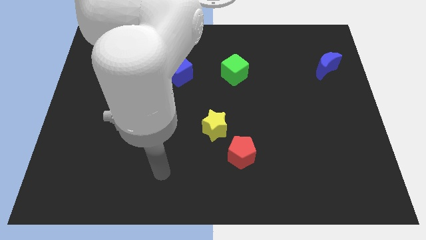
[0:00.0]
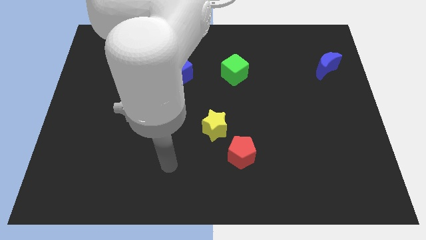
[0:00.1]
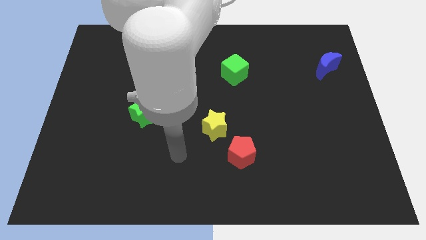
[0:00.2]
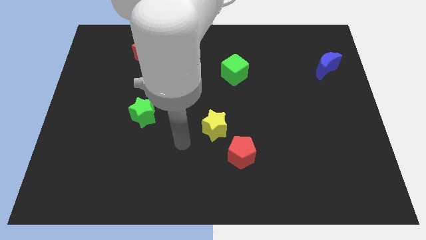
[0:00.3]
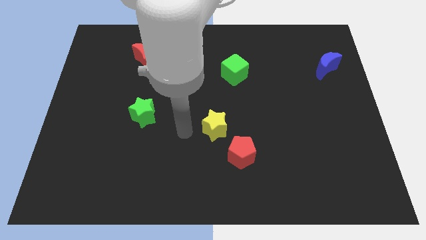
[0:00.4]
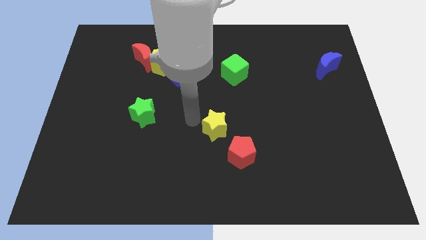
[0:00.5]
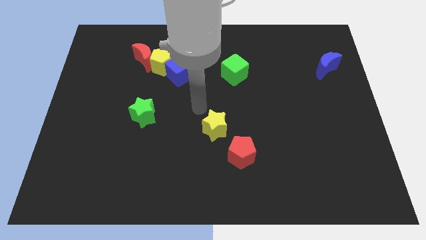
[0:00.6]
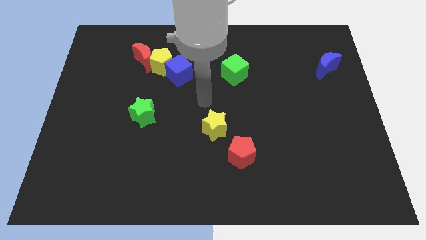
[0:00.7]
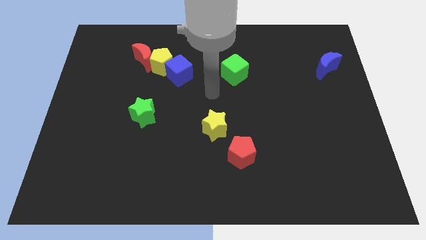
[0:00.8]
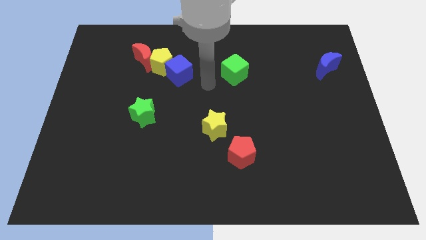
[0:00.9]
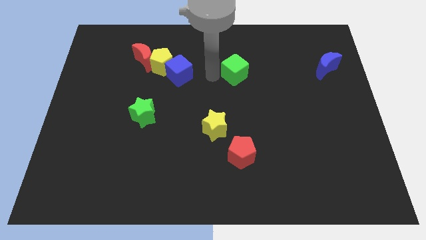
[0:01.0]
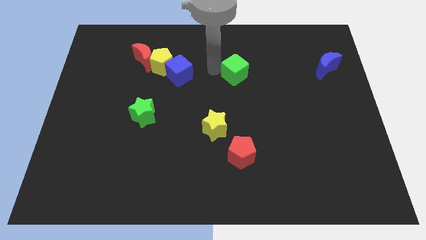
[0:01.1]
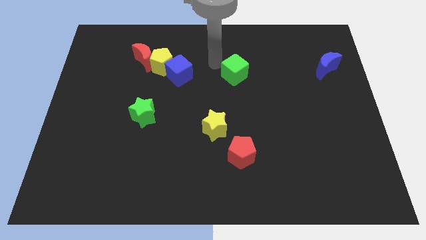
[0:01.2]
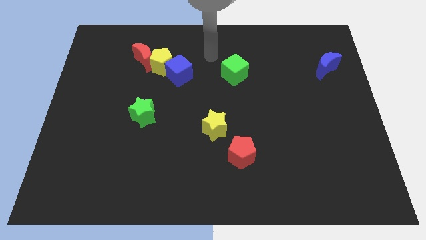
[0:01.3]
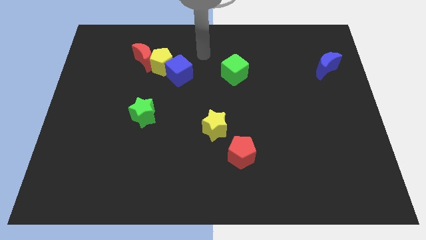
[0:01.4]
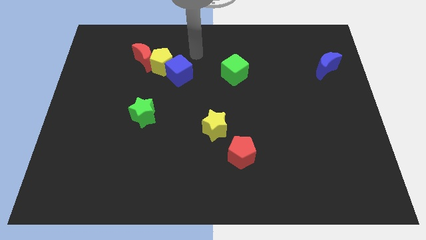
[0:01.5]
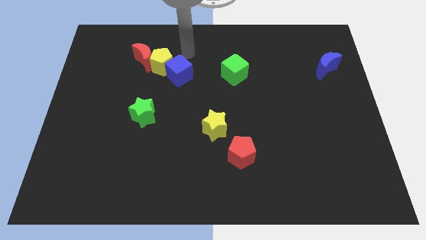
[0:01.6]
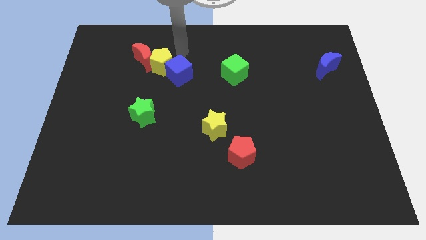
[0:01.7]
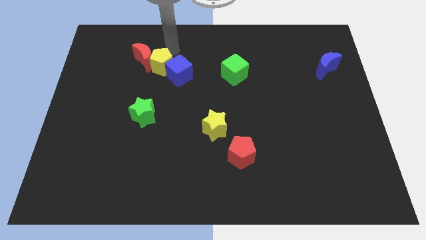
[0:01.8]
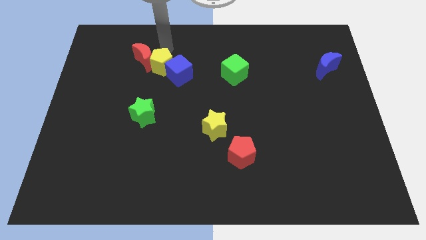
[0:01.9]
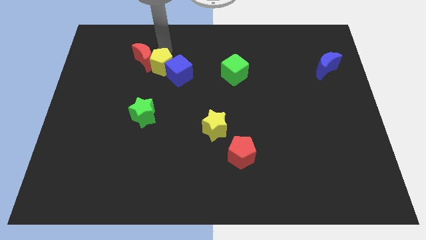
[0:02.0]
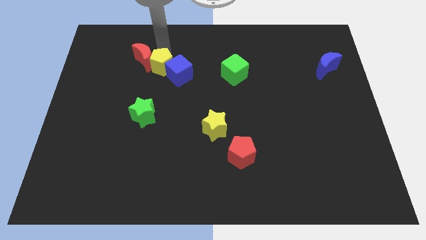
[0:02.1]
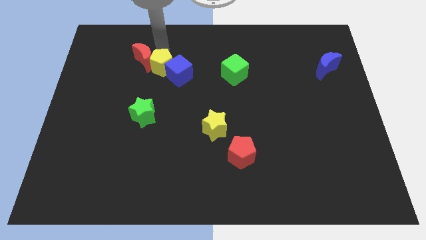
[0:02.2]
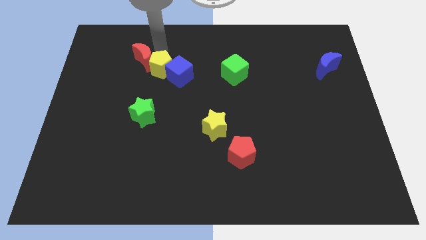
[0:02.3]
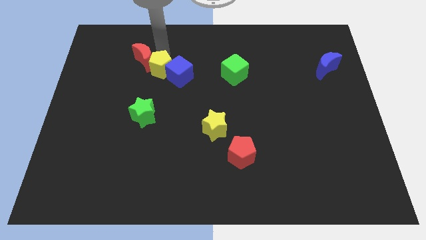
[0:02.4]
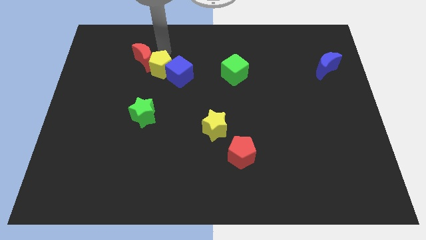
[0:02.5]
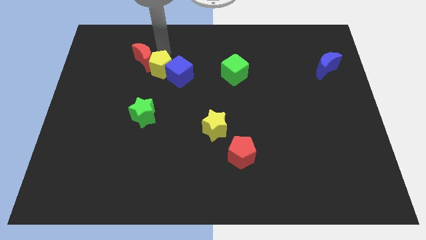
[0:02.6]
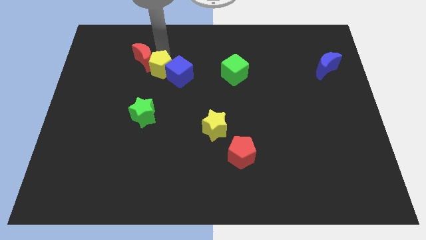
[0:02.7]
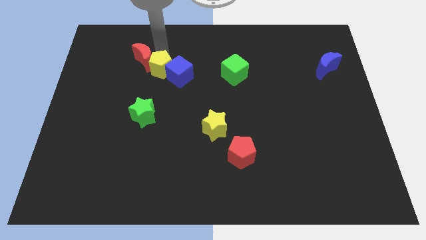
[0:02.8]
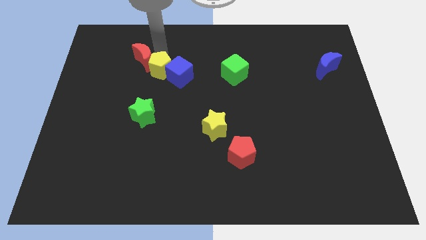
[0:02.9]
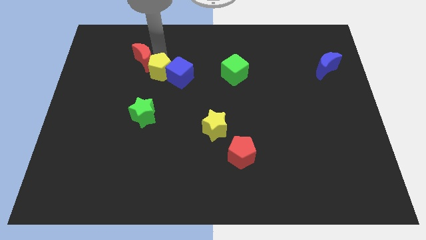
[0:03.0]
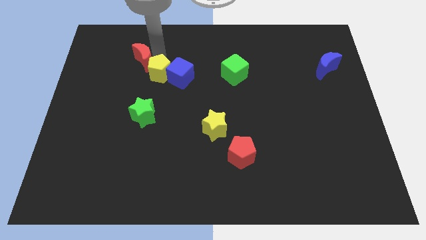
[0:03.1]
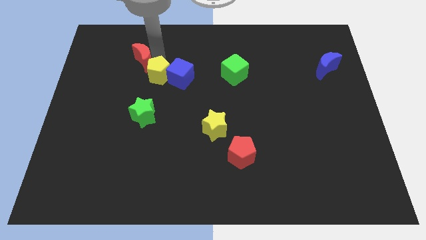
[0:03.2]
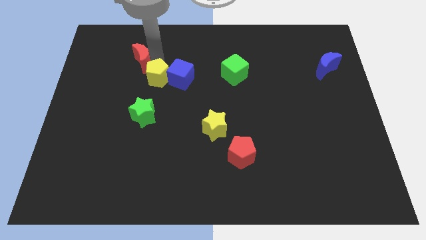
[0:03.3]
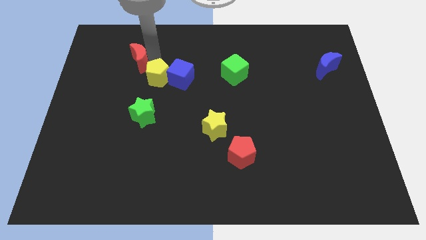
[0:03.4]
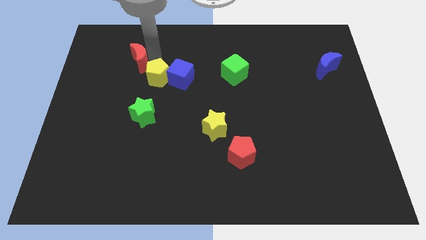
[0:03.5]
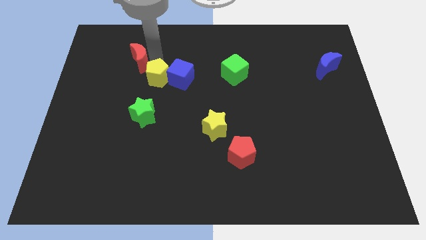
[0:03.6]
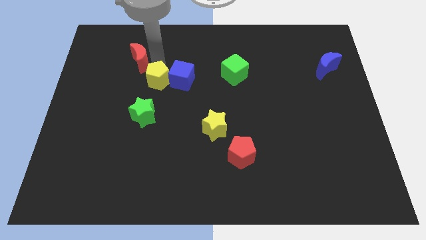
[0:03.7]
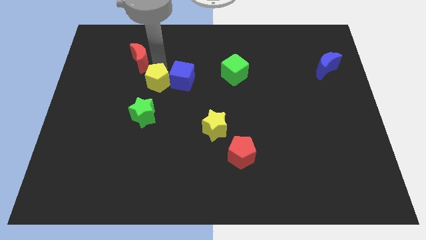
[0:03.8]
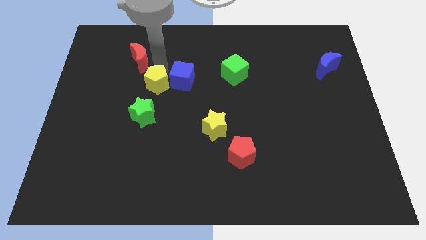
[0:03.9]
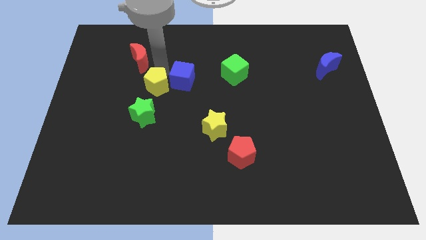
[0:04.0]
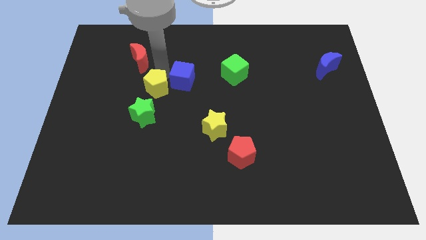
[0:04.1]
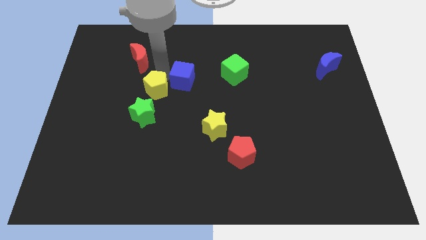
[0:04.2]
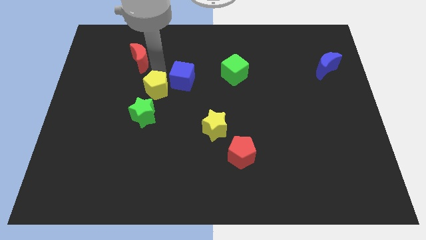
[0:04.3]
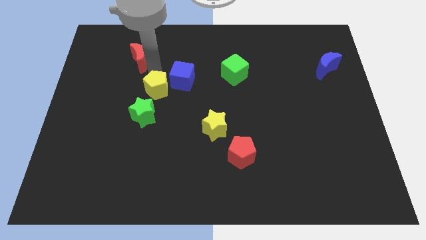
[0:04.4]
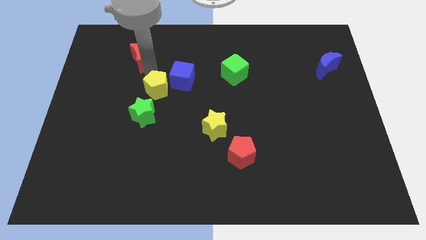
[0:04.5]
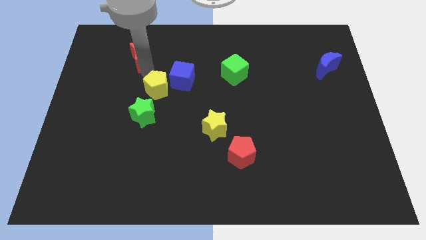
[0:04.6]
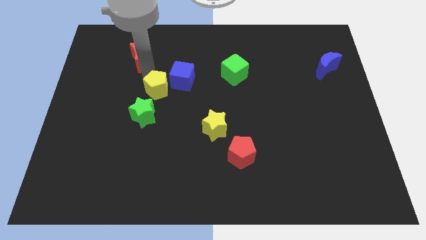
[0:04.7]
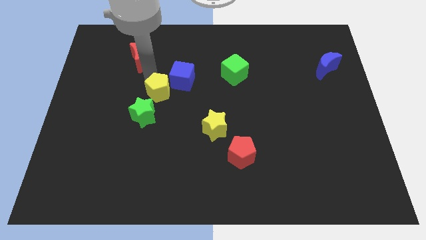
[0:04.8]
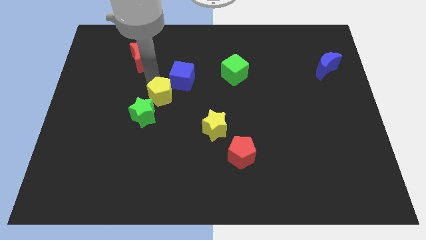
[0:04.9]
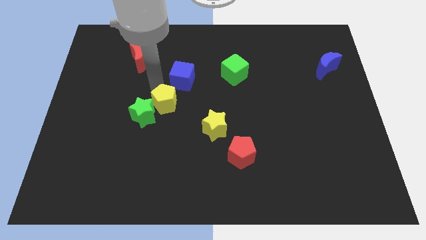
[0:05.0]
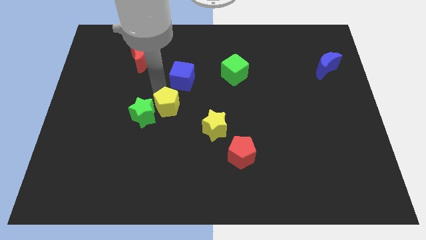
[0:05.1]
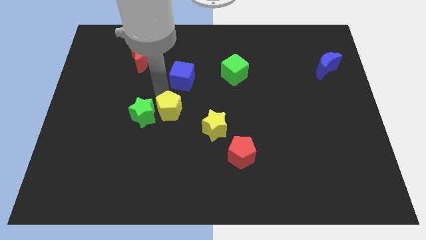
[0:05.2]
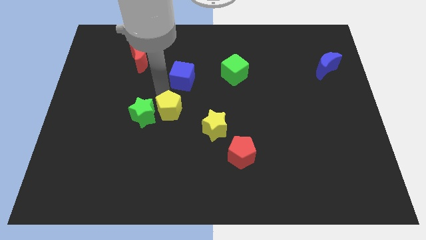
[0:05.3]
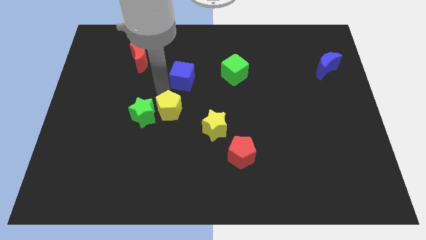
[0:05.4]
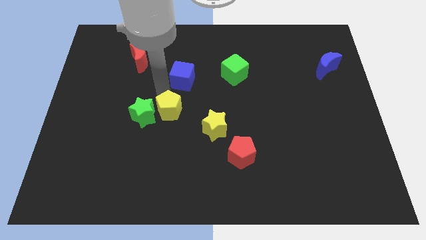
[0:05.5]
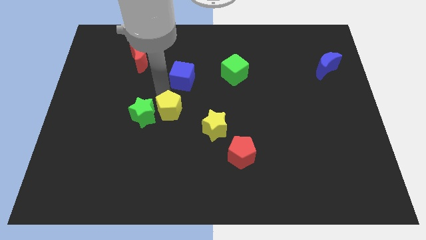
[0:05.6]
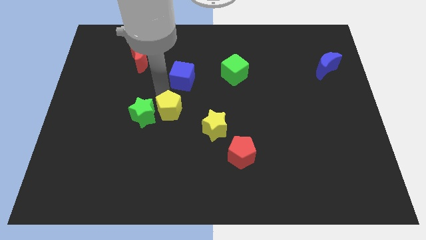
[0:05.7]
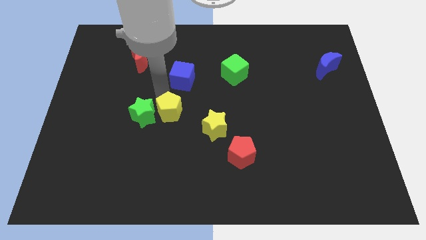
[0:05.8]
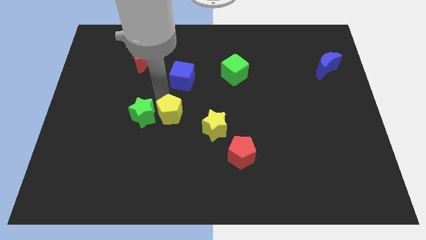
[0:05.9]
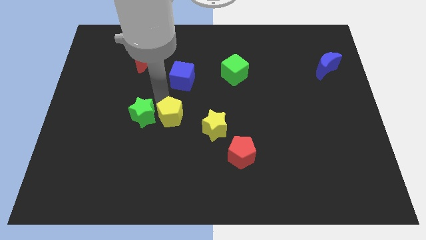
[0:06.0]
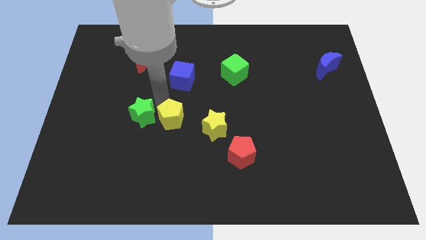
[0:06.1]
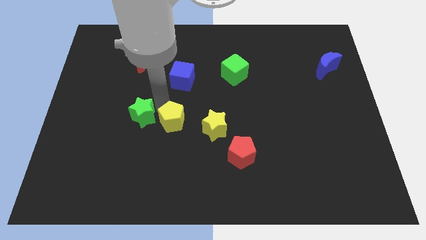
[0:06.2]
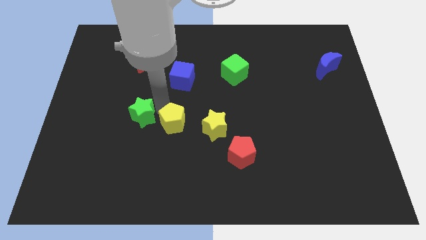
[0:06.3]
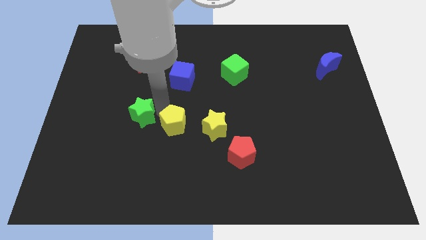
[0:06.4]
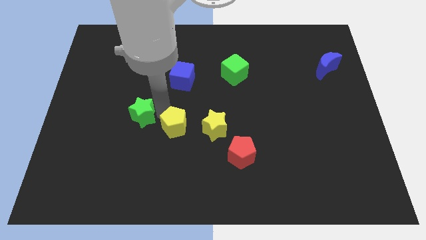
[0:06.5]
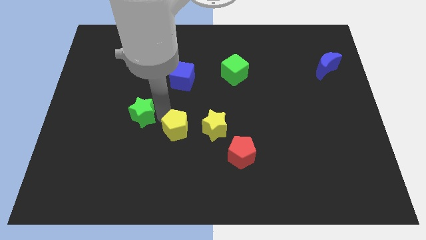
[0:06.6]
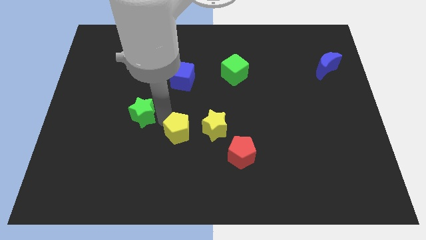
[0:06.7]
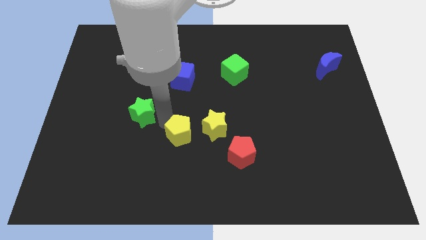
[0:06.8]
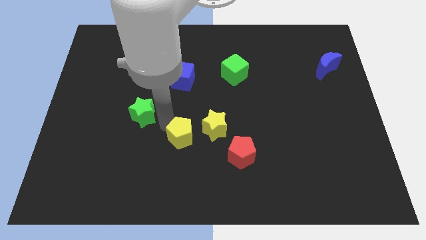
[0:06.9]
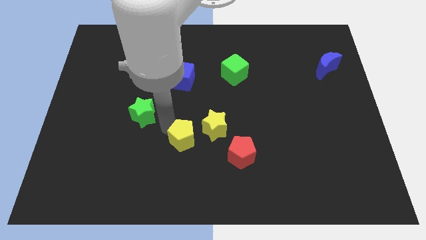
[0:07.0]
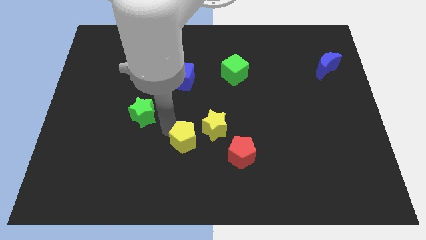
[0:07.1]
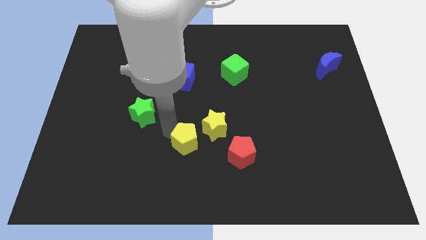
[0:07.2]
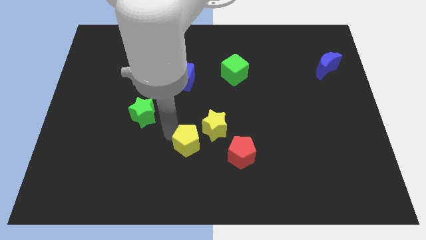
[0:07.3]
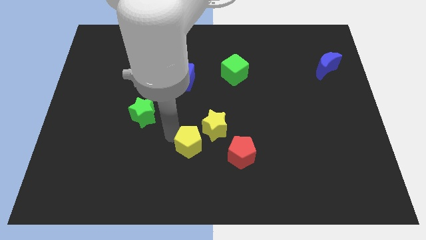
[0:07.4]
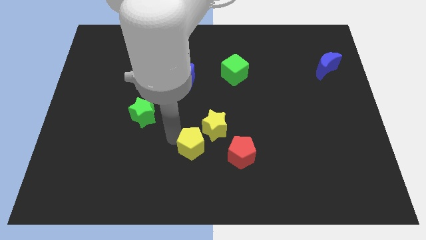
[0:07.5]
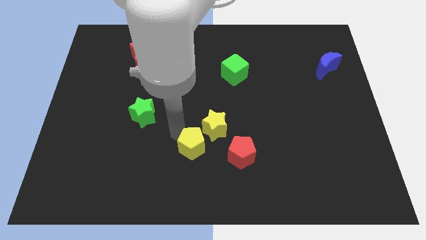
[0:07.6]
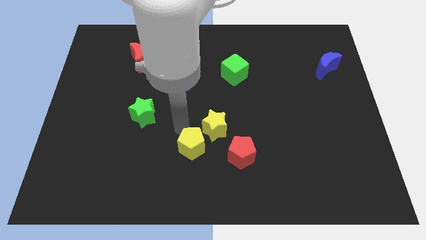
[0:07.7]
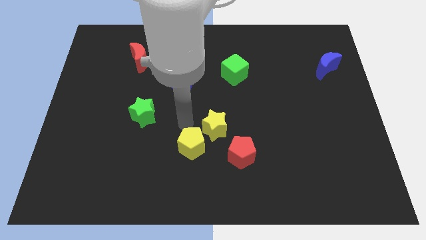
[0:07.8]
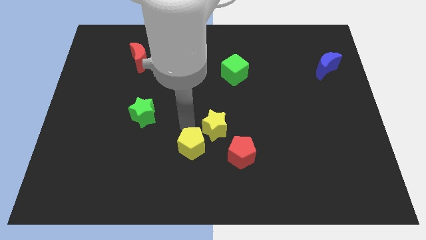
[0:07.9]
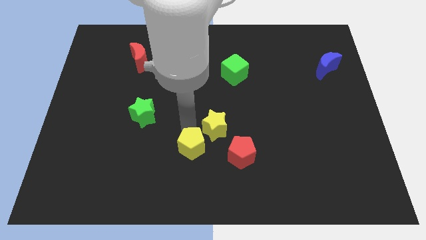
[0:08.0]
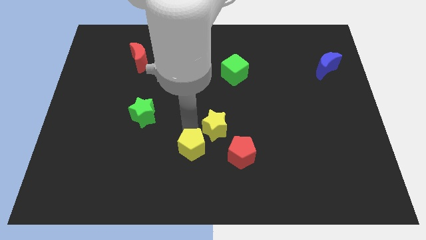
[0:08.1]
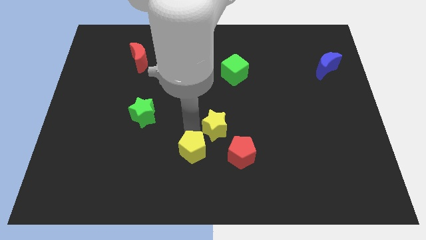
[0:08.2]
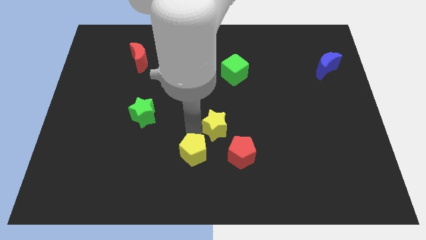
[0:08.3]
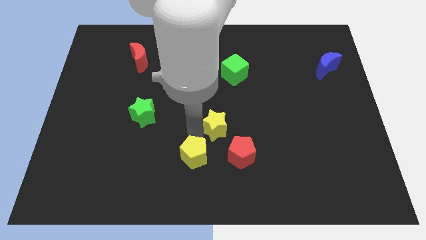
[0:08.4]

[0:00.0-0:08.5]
slide the yellow pentagon to the bottom
